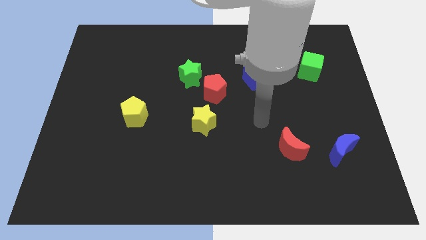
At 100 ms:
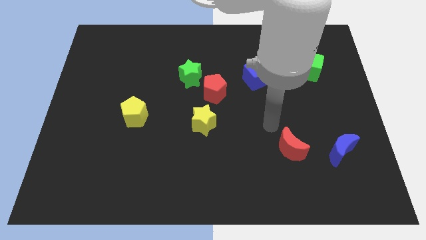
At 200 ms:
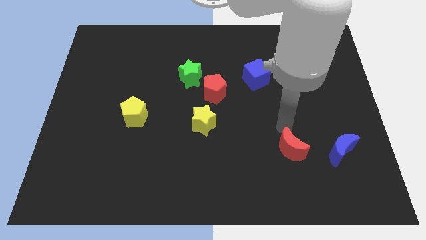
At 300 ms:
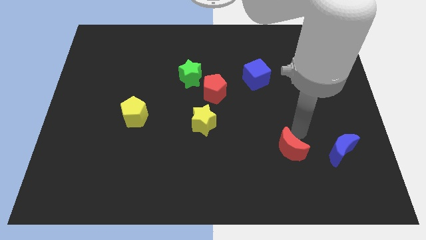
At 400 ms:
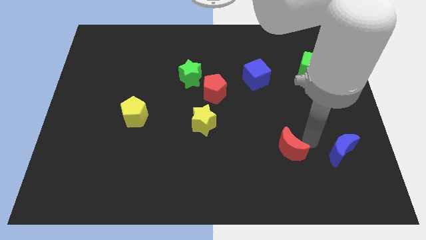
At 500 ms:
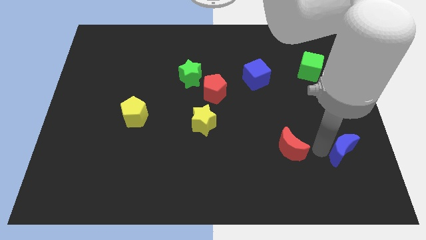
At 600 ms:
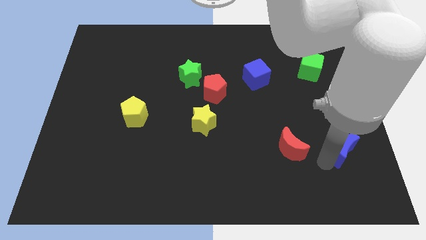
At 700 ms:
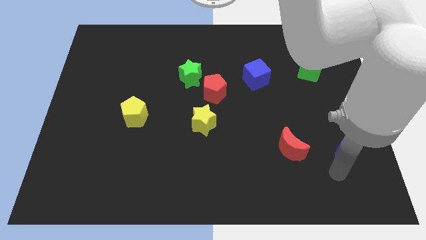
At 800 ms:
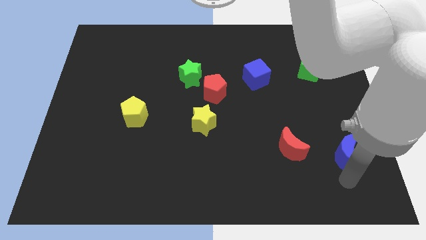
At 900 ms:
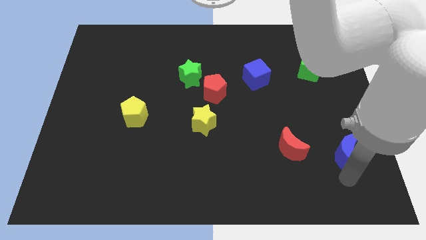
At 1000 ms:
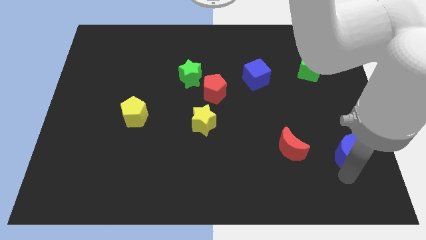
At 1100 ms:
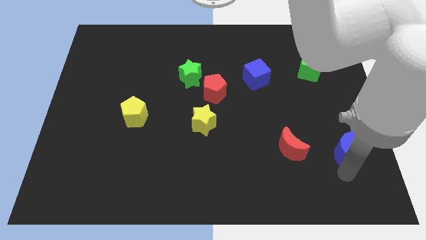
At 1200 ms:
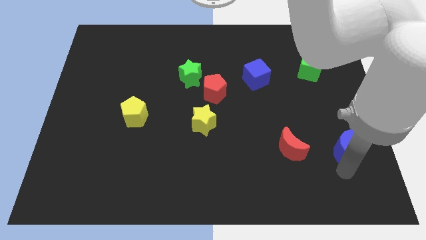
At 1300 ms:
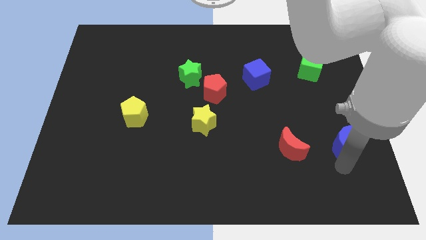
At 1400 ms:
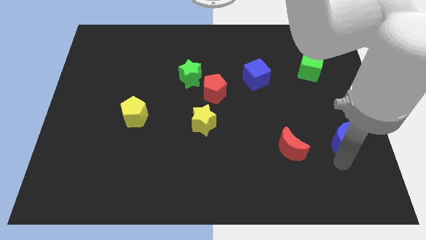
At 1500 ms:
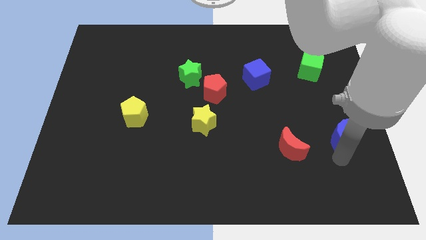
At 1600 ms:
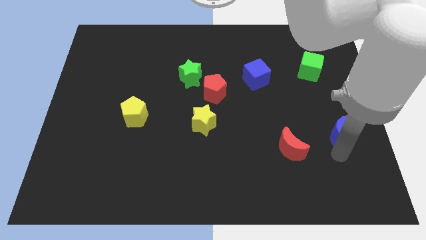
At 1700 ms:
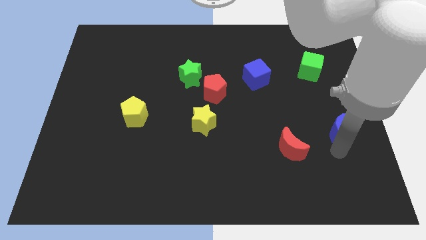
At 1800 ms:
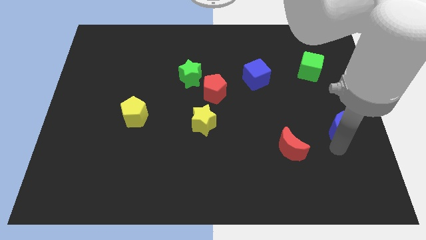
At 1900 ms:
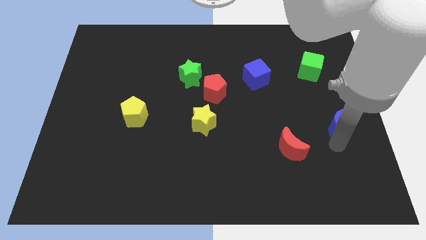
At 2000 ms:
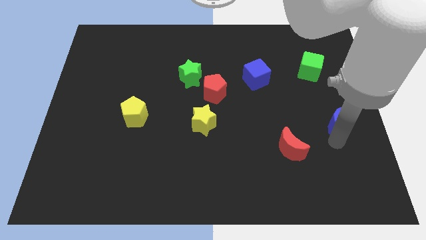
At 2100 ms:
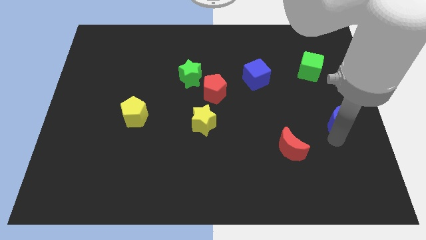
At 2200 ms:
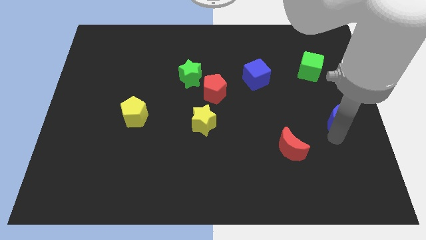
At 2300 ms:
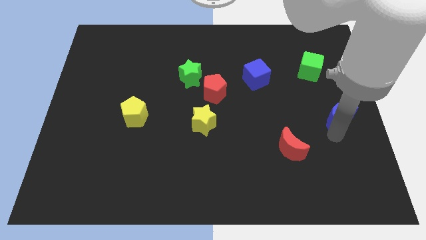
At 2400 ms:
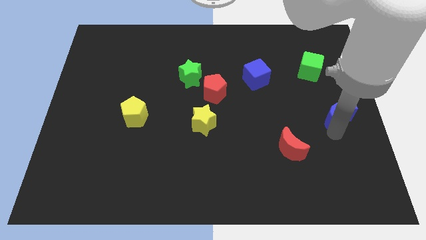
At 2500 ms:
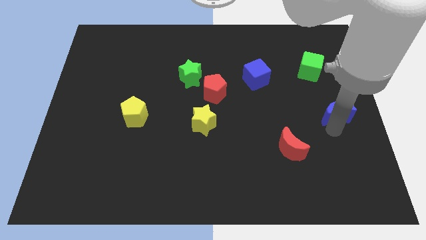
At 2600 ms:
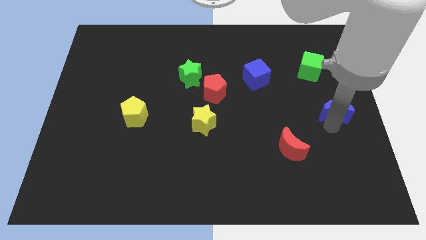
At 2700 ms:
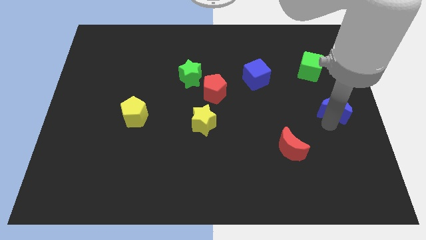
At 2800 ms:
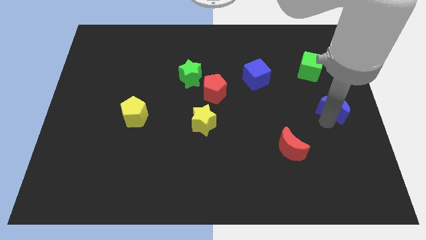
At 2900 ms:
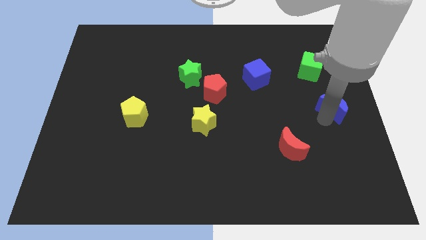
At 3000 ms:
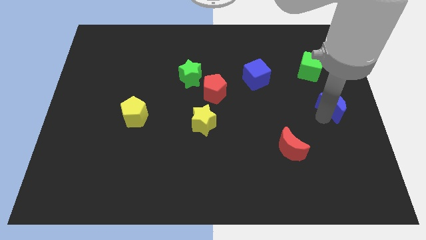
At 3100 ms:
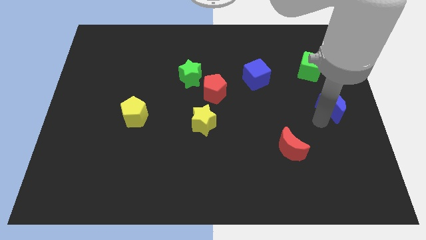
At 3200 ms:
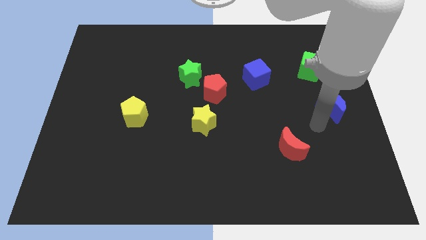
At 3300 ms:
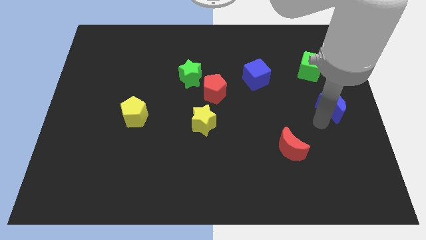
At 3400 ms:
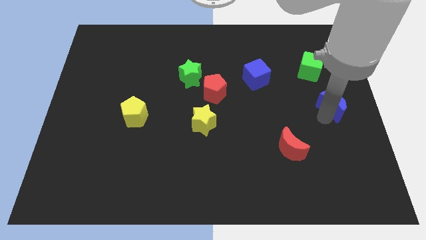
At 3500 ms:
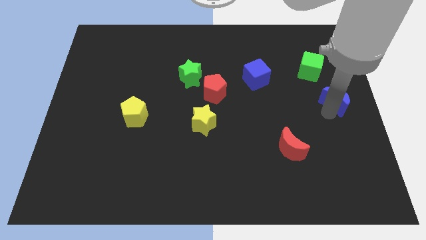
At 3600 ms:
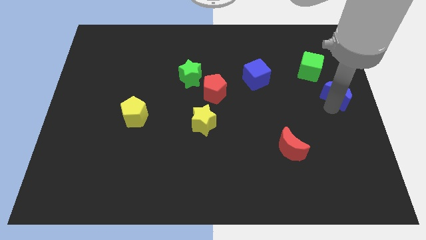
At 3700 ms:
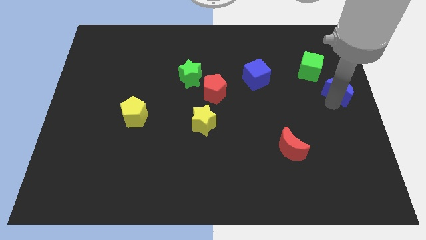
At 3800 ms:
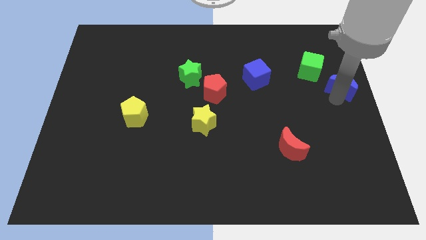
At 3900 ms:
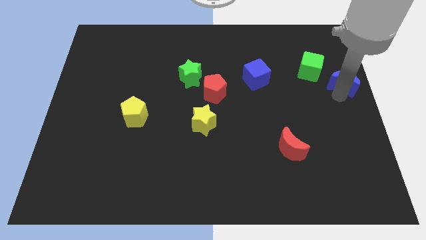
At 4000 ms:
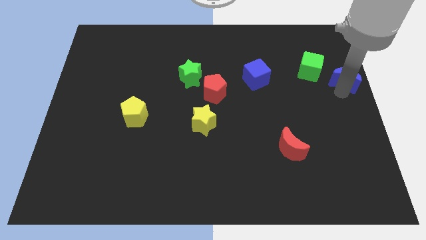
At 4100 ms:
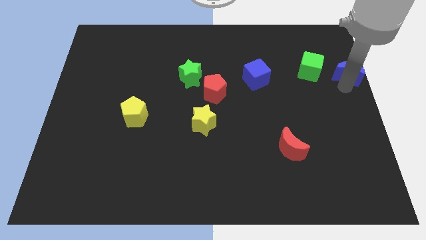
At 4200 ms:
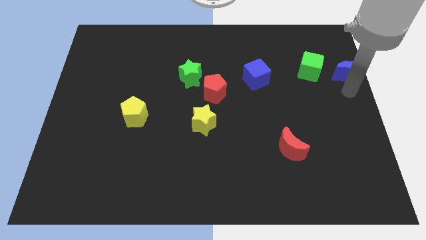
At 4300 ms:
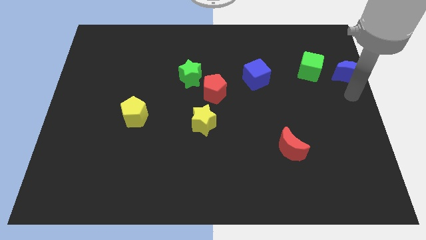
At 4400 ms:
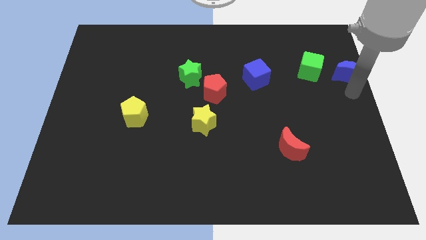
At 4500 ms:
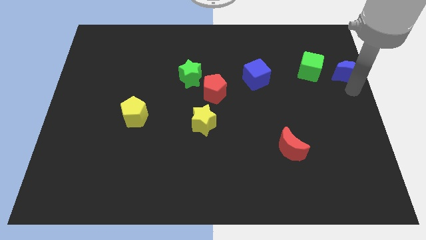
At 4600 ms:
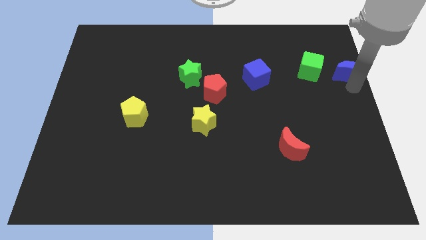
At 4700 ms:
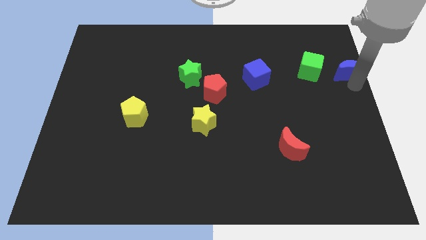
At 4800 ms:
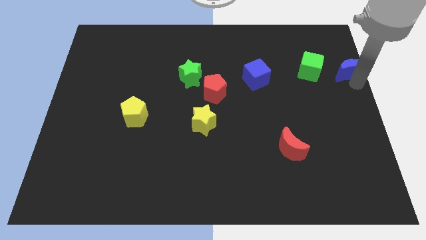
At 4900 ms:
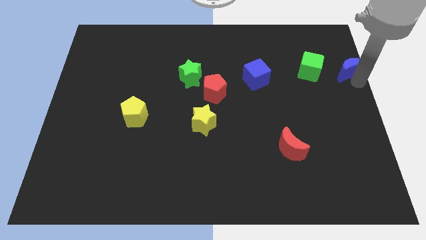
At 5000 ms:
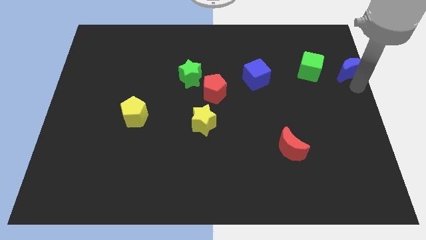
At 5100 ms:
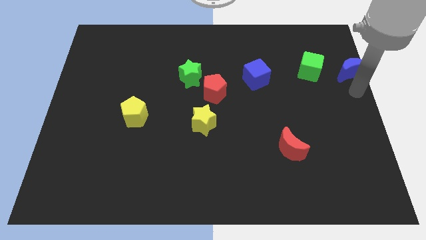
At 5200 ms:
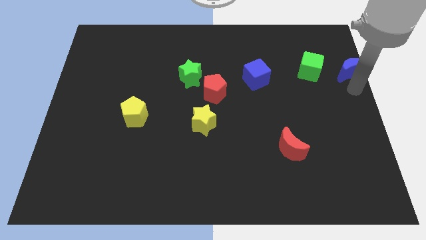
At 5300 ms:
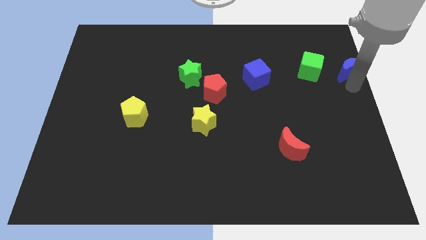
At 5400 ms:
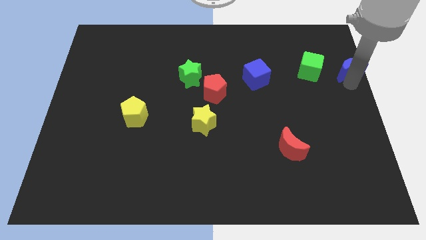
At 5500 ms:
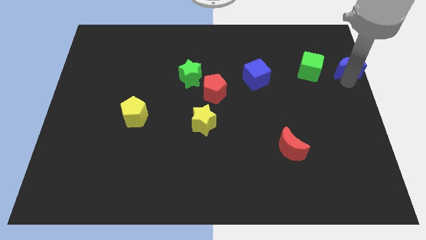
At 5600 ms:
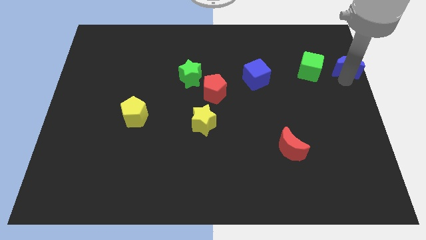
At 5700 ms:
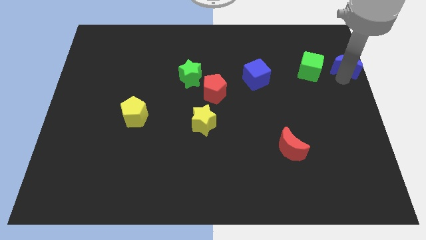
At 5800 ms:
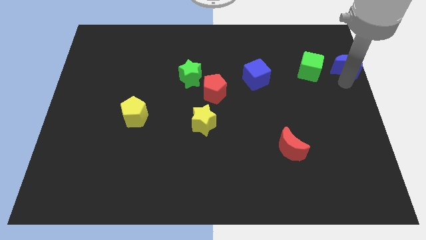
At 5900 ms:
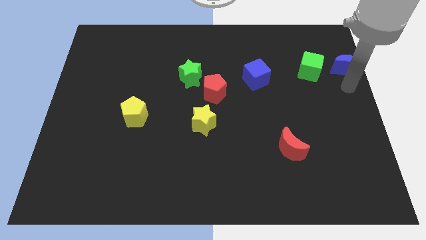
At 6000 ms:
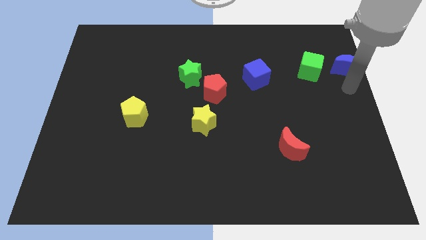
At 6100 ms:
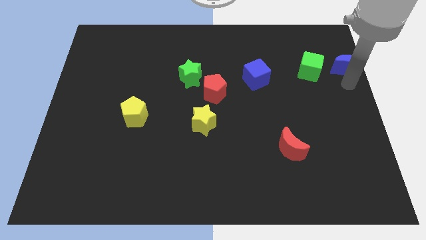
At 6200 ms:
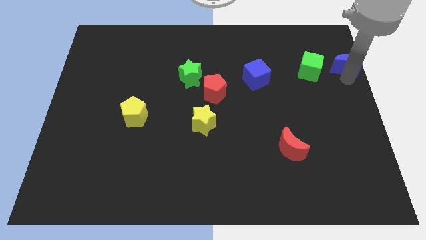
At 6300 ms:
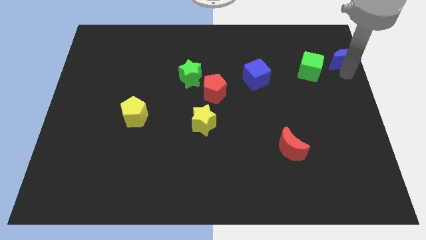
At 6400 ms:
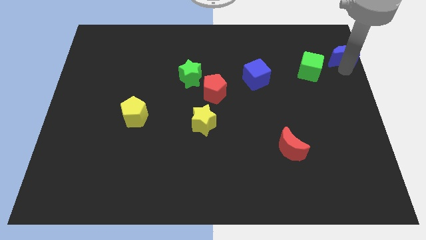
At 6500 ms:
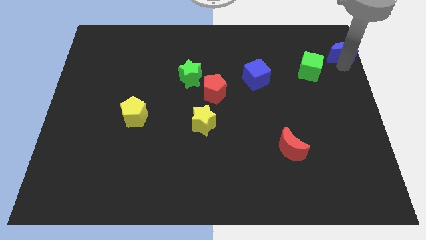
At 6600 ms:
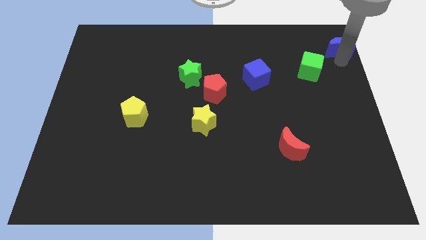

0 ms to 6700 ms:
put the blue moon to the upper right corner
